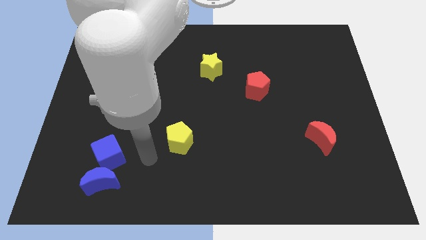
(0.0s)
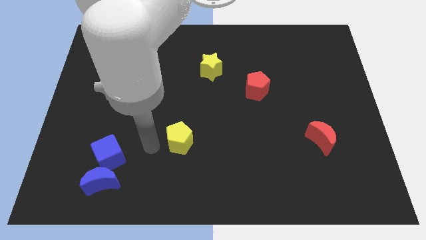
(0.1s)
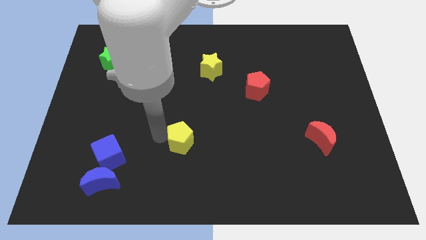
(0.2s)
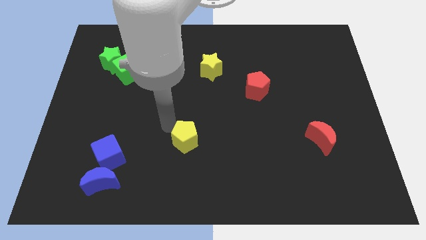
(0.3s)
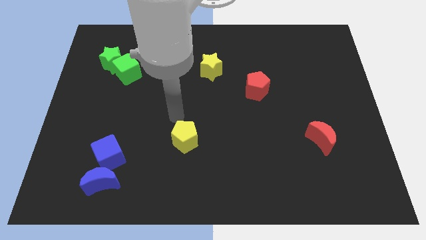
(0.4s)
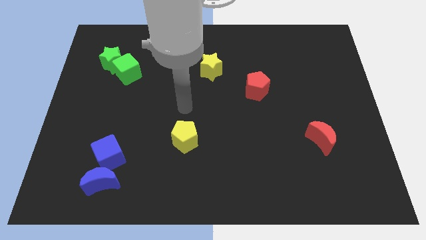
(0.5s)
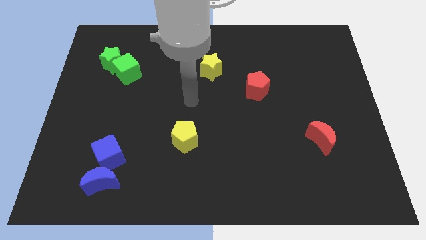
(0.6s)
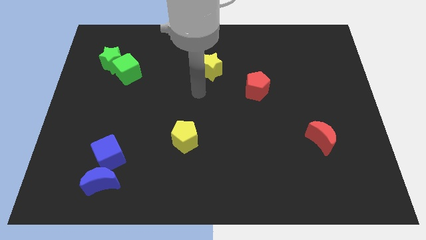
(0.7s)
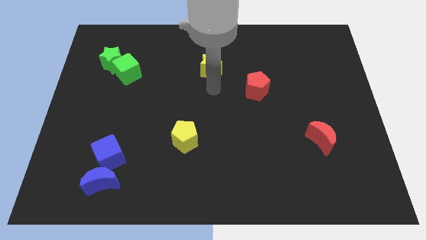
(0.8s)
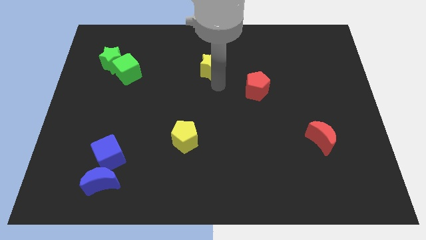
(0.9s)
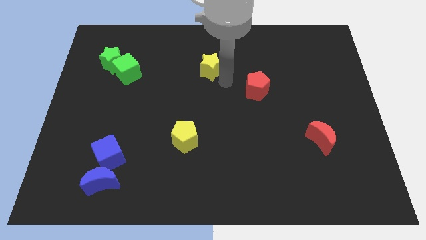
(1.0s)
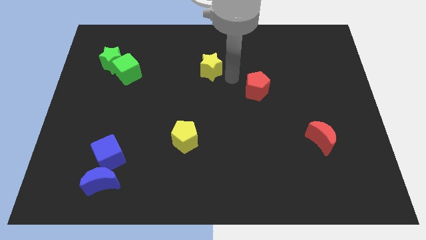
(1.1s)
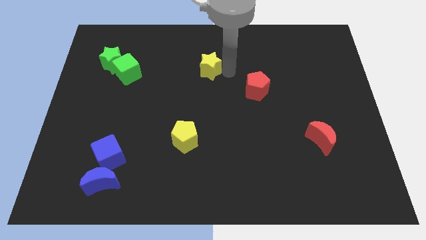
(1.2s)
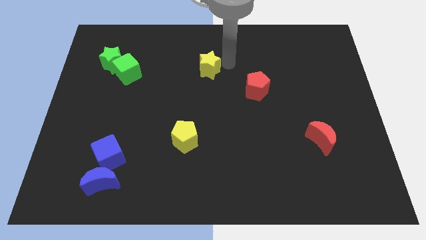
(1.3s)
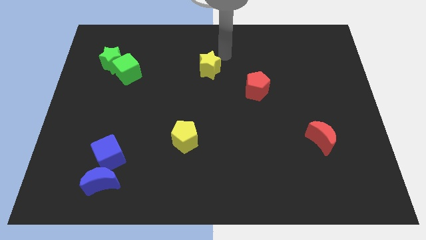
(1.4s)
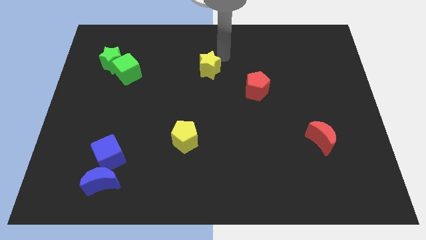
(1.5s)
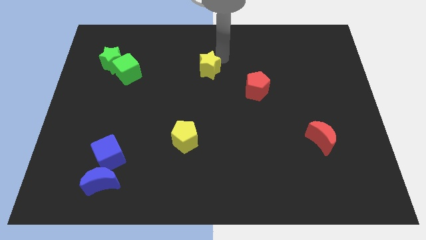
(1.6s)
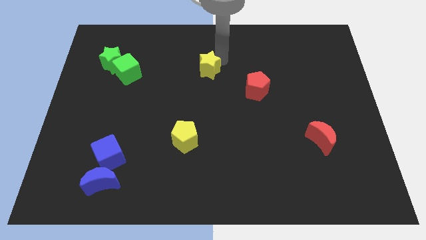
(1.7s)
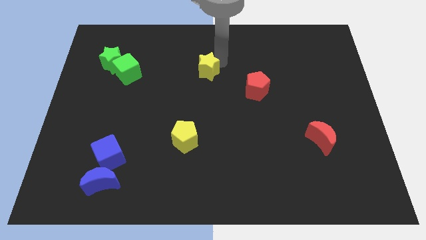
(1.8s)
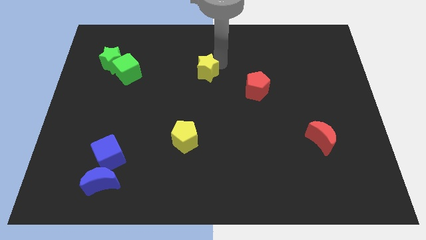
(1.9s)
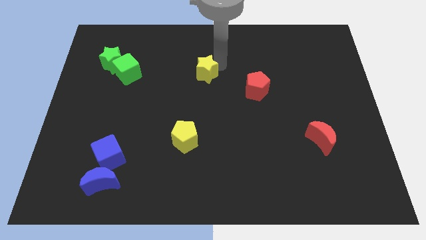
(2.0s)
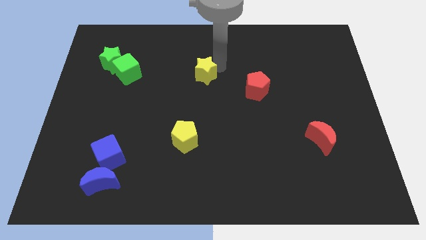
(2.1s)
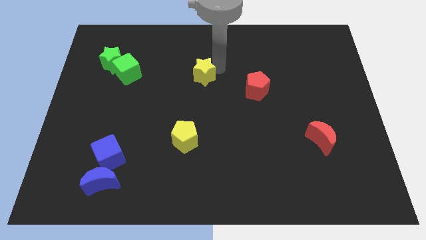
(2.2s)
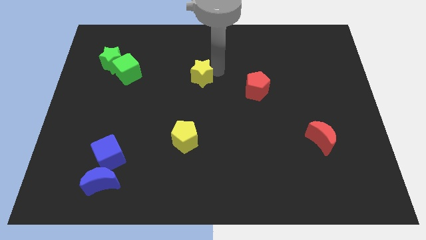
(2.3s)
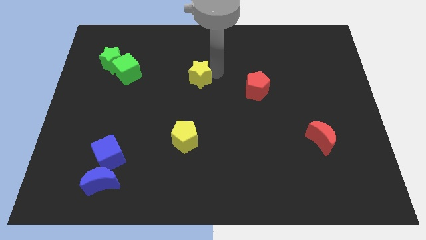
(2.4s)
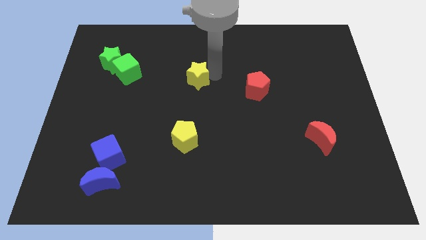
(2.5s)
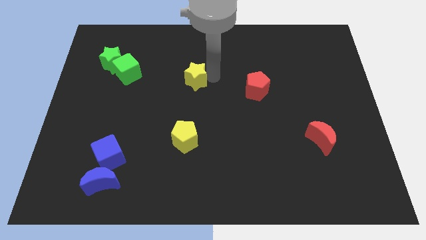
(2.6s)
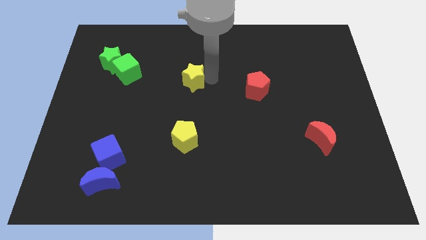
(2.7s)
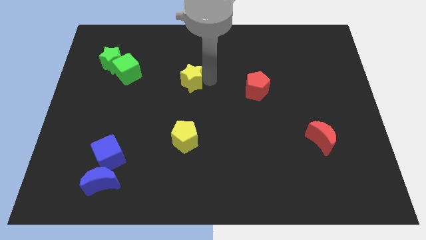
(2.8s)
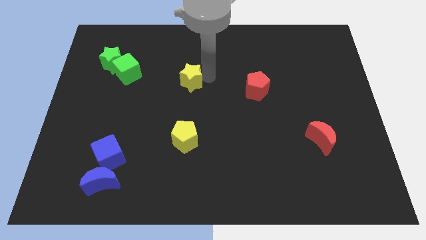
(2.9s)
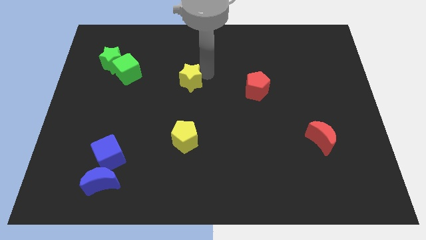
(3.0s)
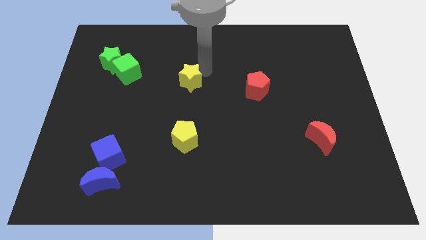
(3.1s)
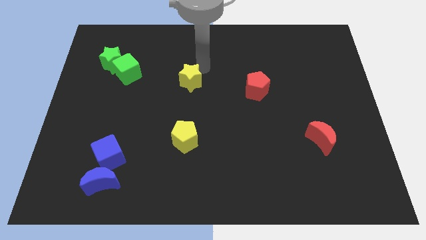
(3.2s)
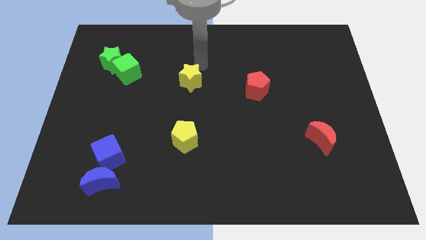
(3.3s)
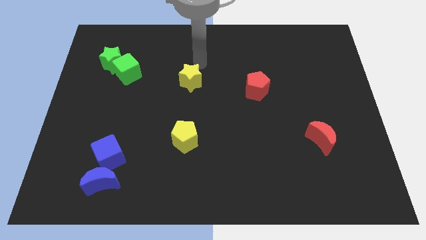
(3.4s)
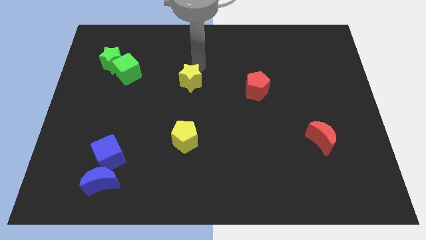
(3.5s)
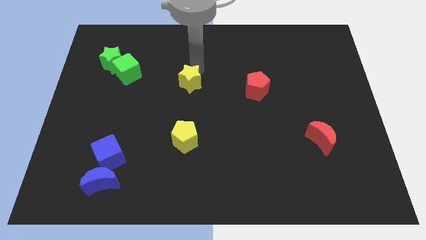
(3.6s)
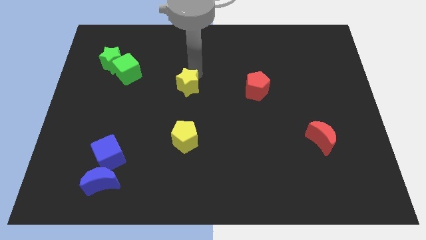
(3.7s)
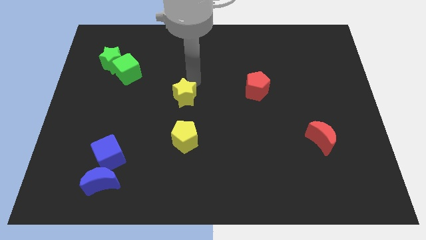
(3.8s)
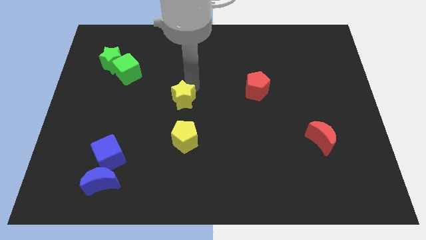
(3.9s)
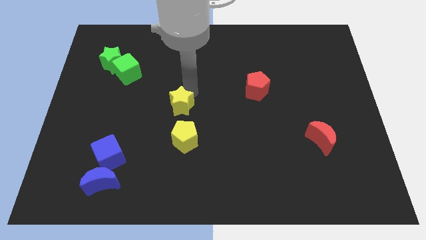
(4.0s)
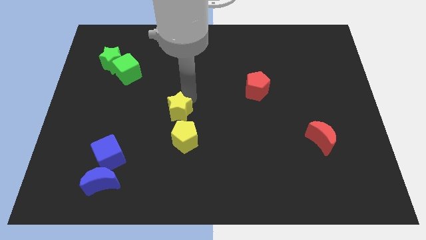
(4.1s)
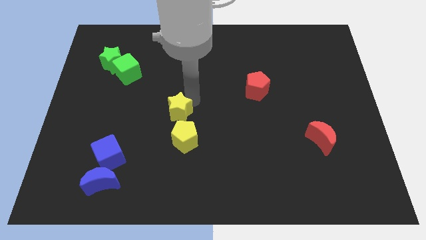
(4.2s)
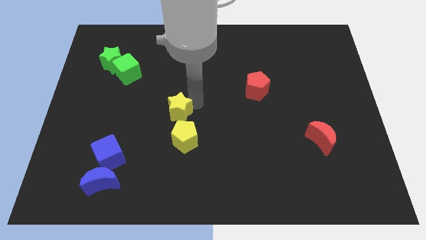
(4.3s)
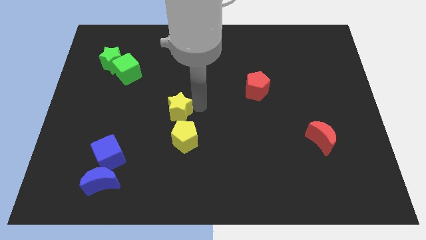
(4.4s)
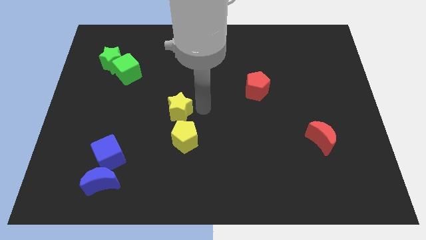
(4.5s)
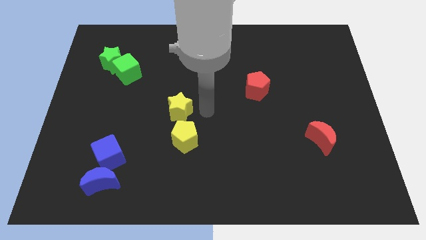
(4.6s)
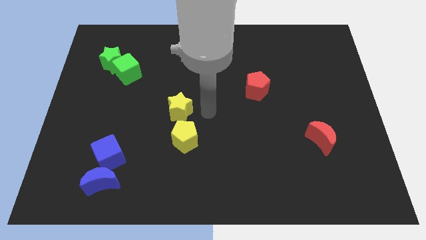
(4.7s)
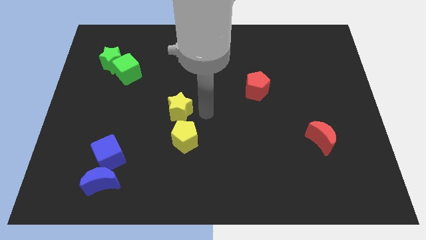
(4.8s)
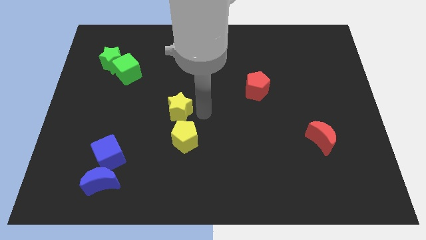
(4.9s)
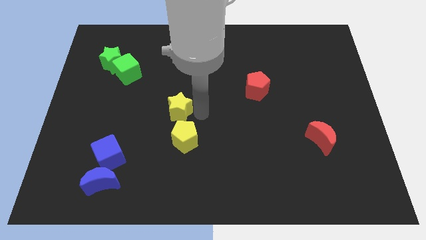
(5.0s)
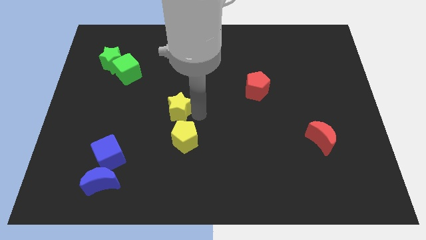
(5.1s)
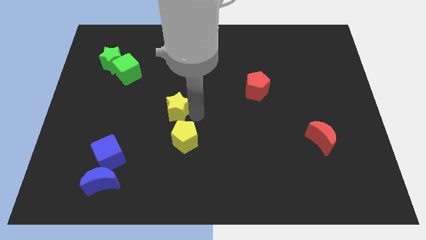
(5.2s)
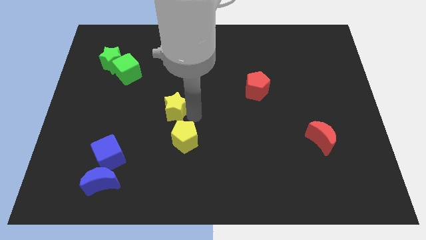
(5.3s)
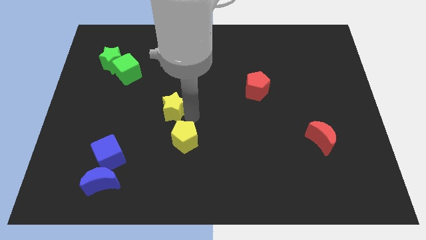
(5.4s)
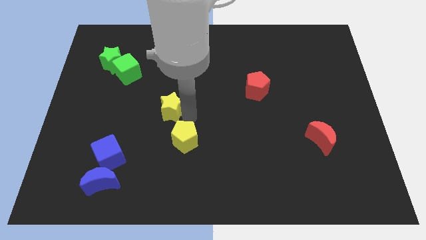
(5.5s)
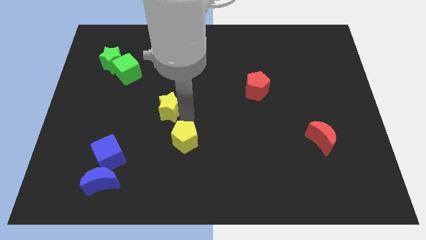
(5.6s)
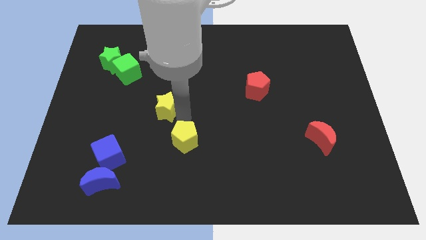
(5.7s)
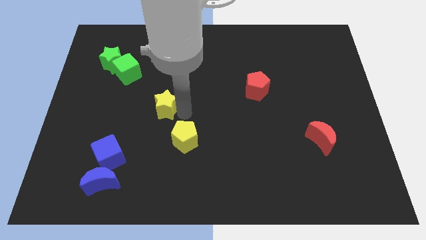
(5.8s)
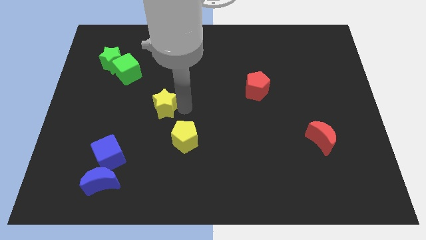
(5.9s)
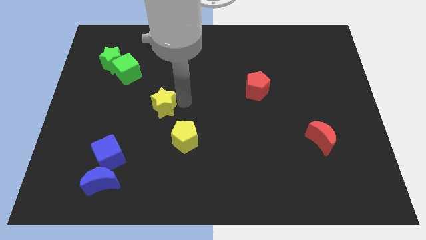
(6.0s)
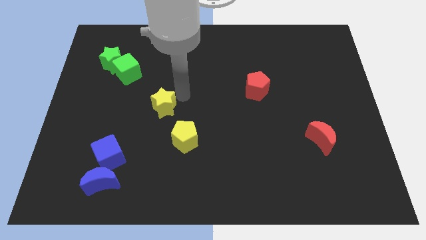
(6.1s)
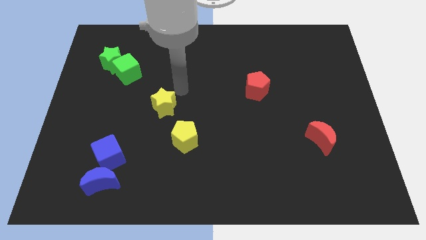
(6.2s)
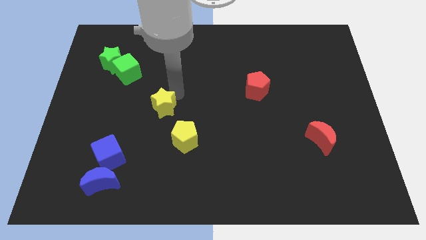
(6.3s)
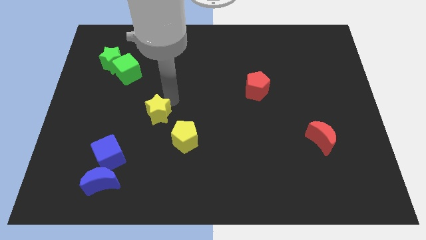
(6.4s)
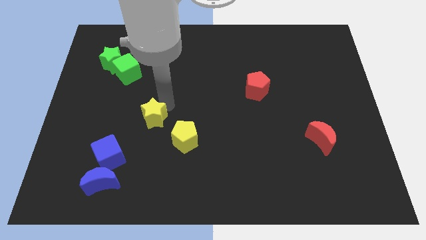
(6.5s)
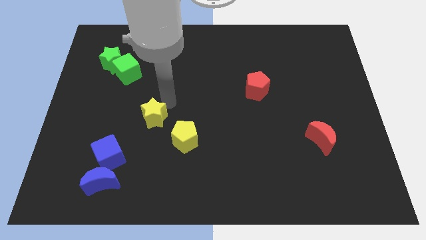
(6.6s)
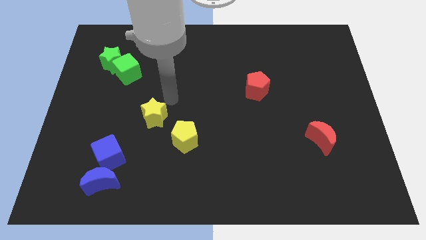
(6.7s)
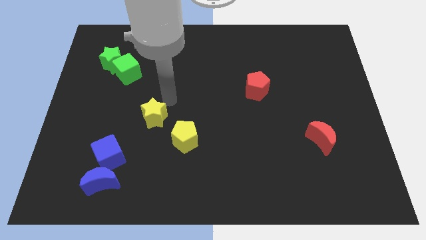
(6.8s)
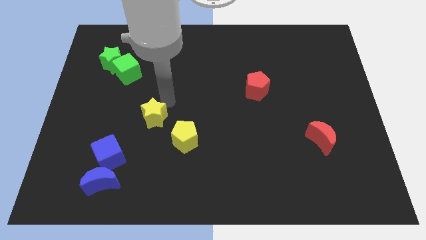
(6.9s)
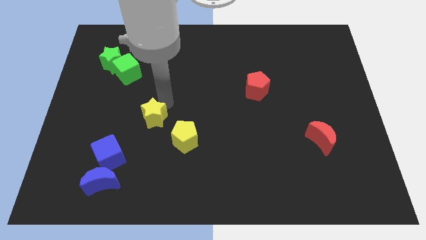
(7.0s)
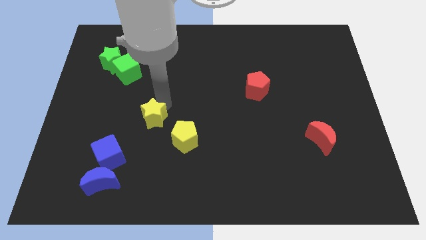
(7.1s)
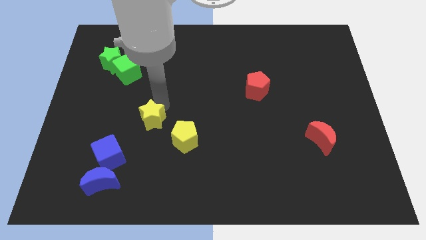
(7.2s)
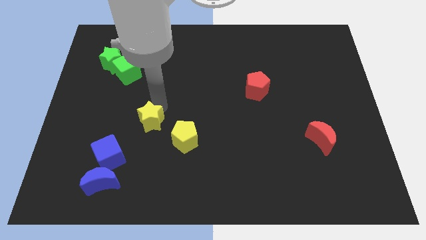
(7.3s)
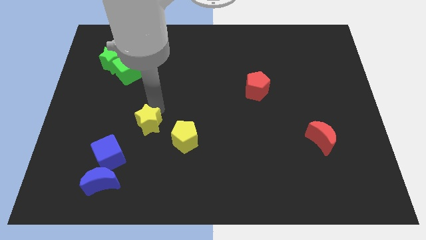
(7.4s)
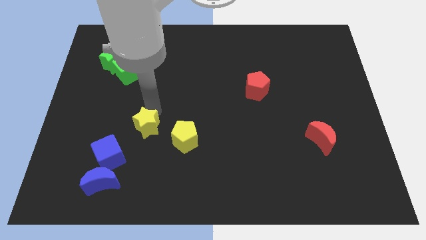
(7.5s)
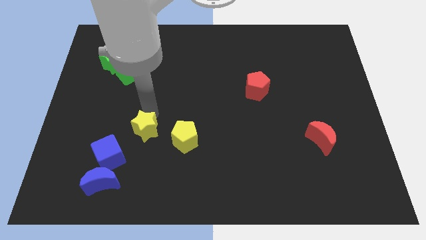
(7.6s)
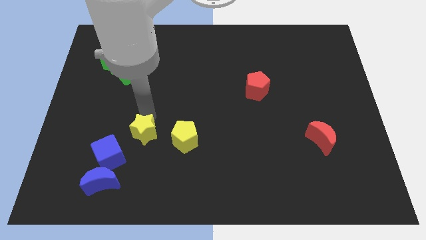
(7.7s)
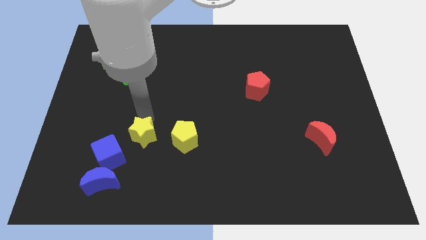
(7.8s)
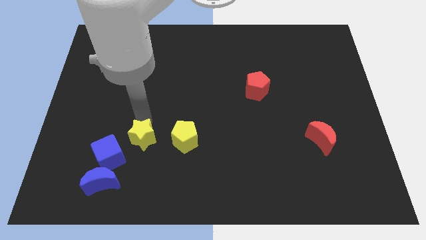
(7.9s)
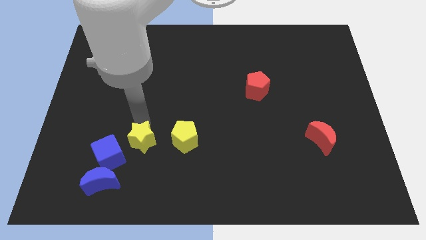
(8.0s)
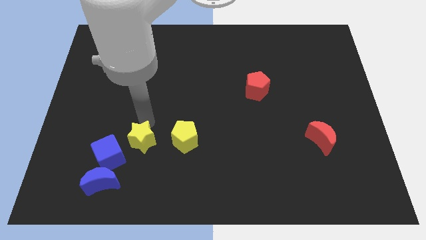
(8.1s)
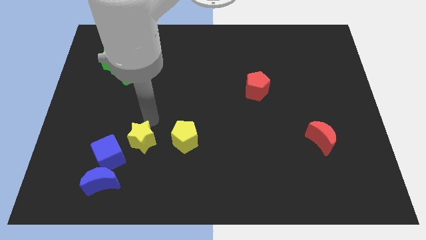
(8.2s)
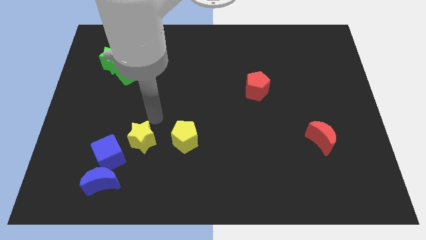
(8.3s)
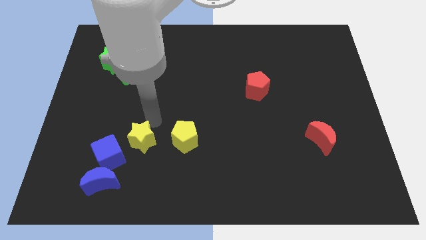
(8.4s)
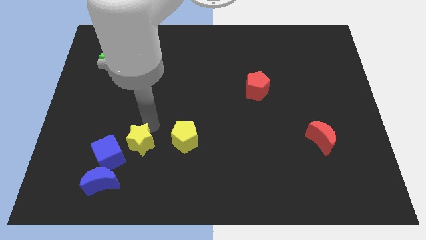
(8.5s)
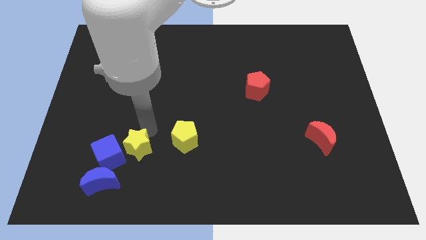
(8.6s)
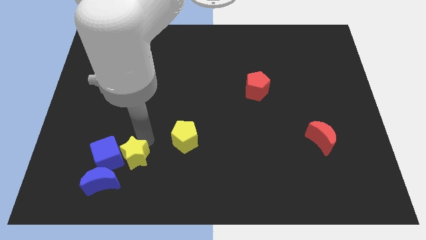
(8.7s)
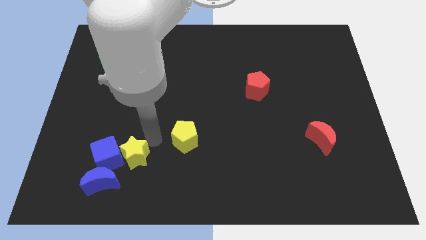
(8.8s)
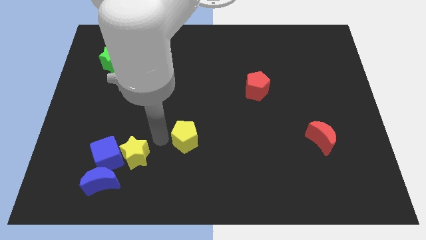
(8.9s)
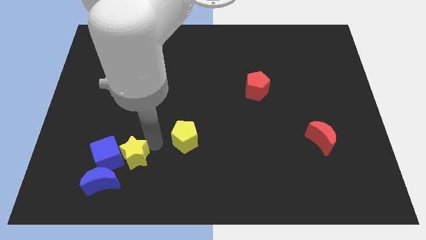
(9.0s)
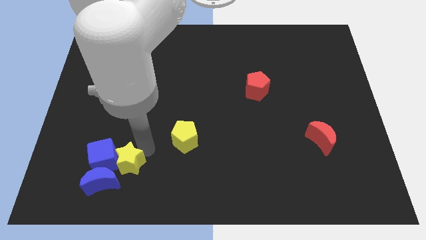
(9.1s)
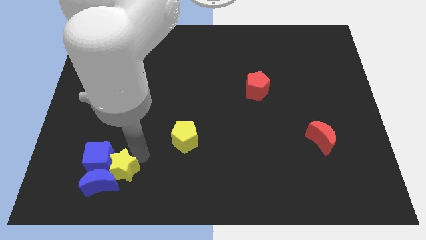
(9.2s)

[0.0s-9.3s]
move the yellow star close to the blue moon
